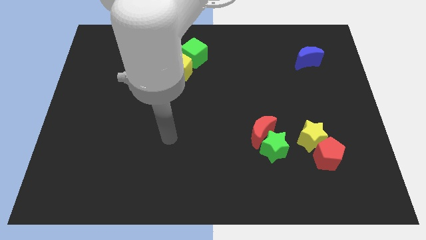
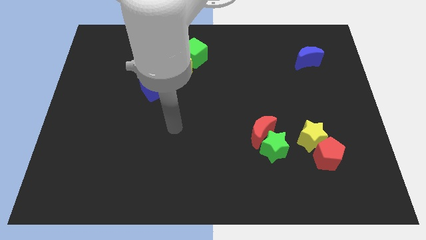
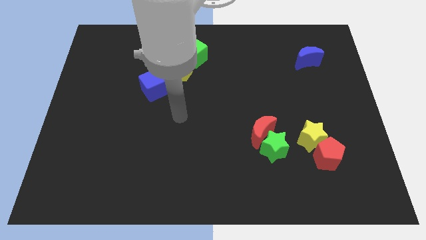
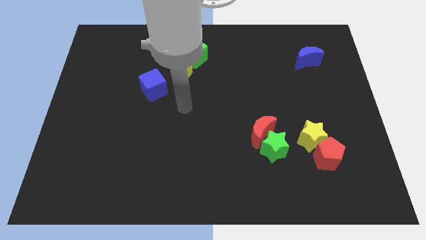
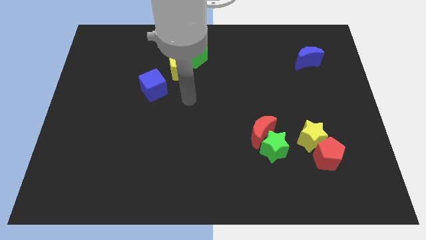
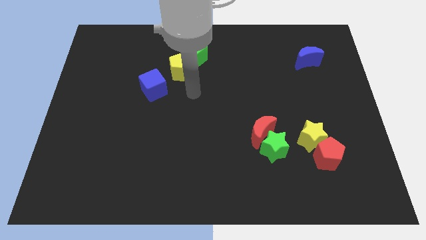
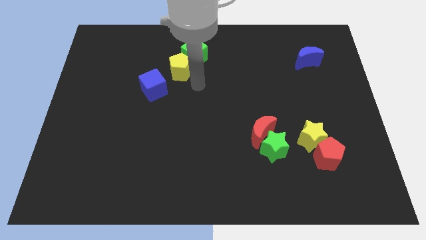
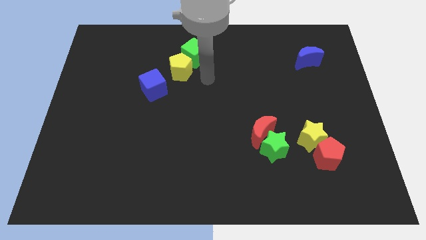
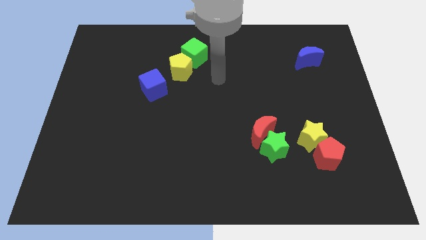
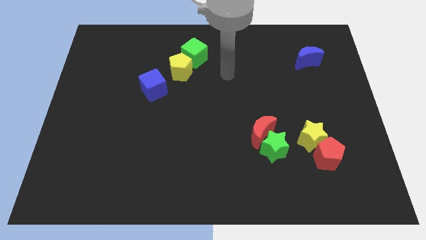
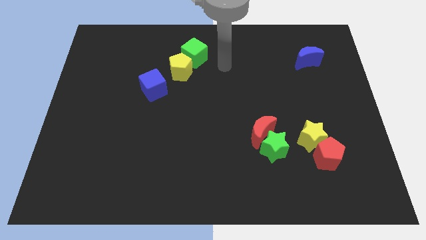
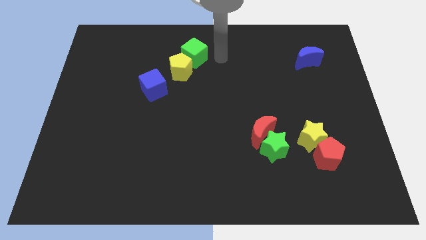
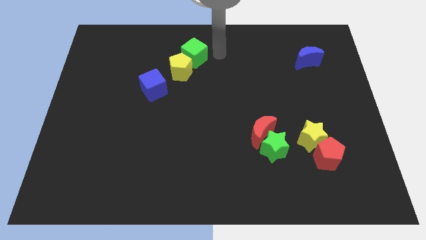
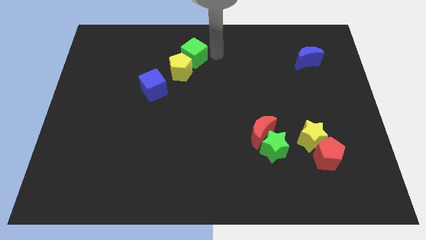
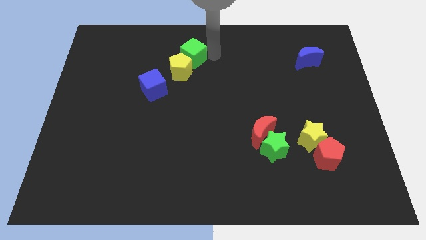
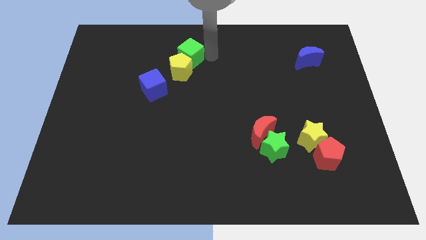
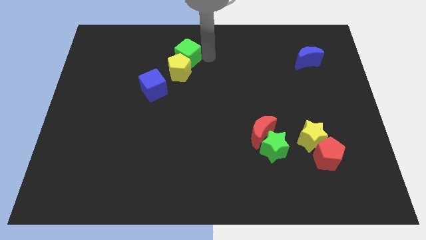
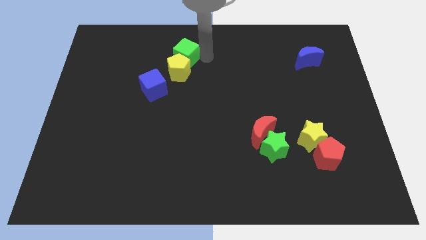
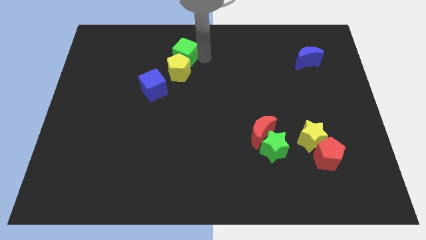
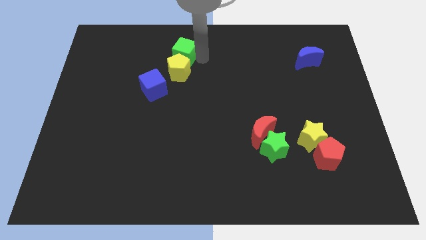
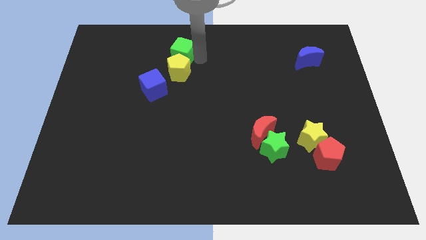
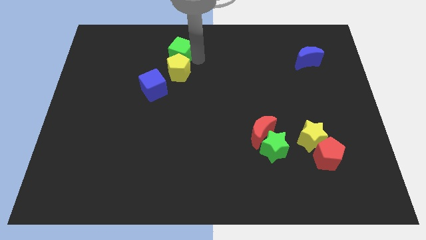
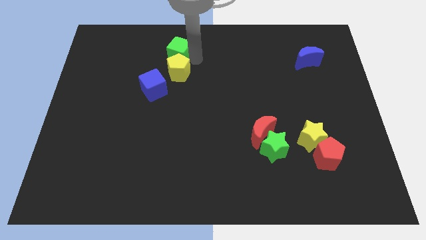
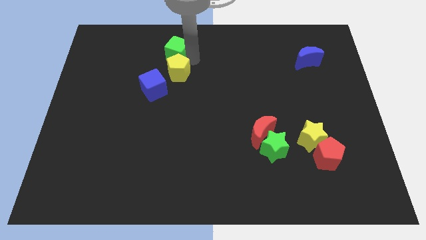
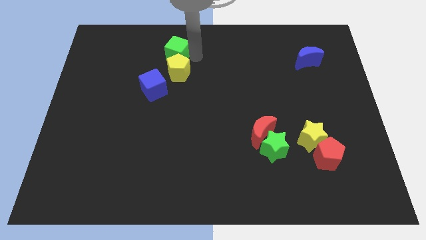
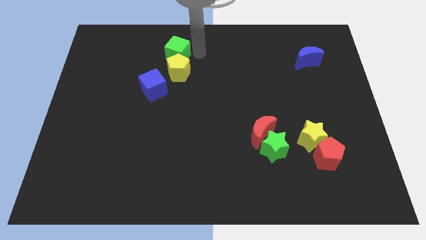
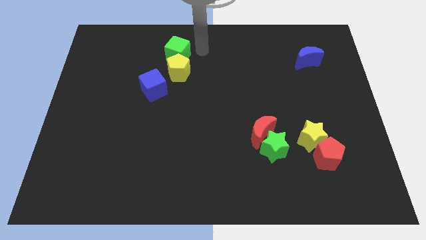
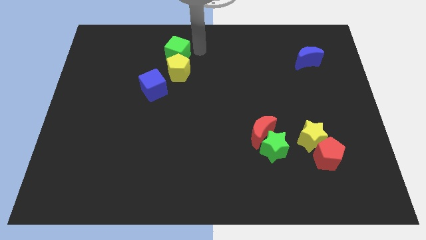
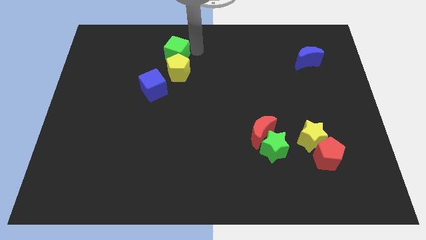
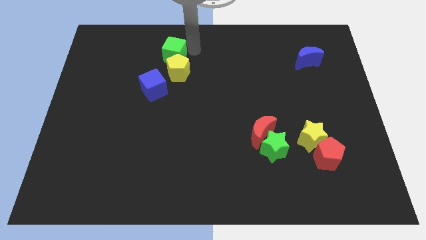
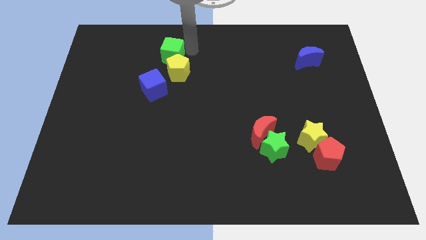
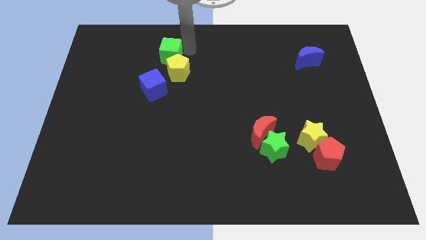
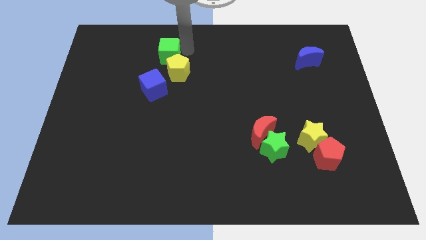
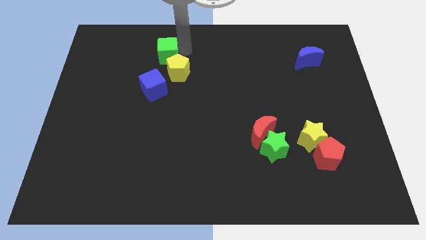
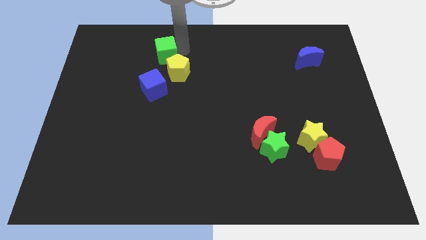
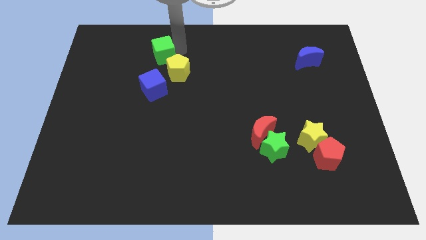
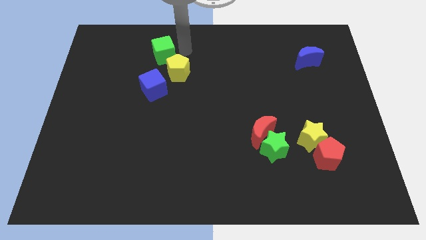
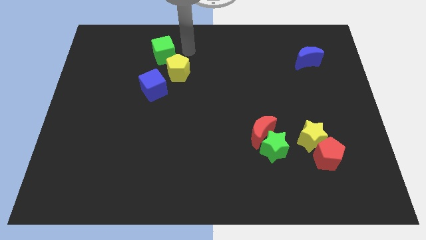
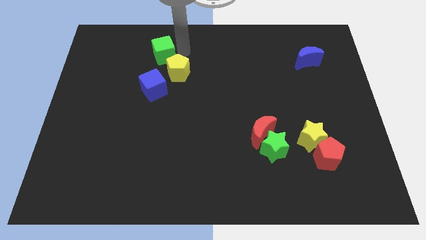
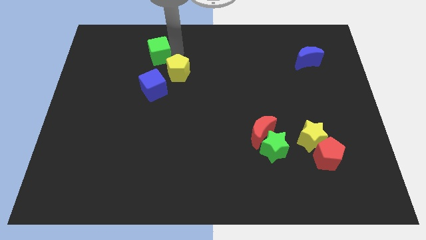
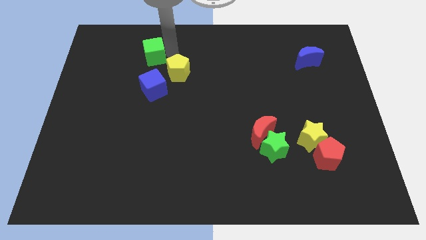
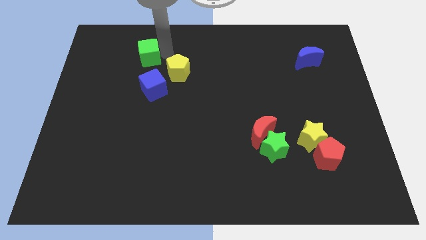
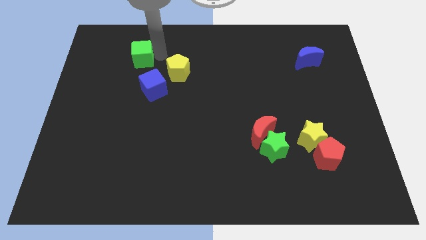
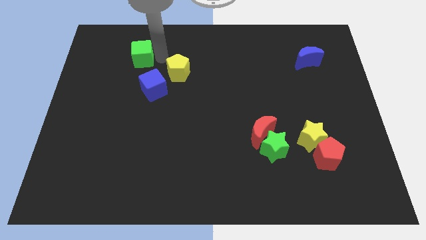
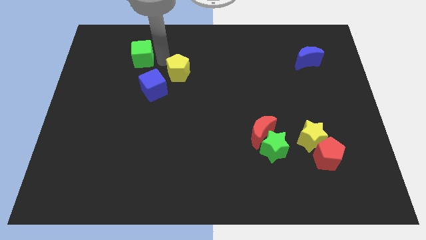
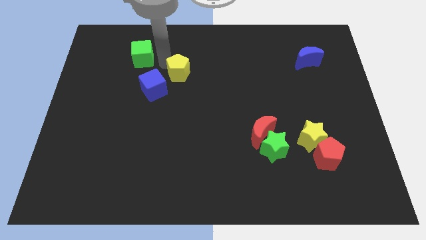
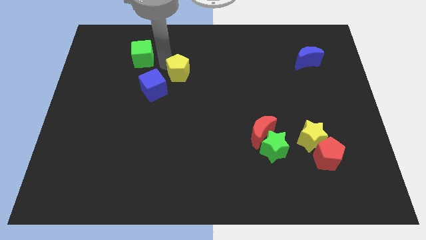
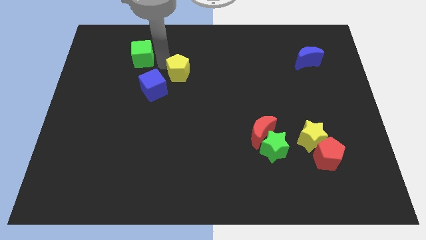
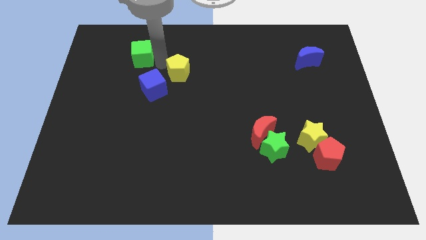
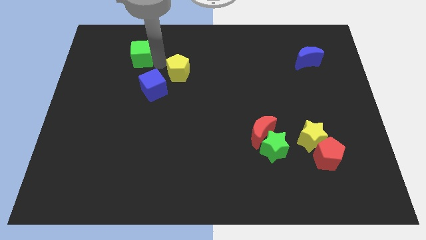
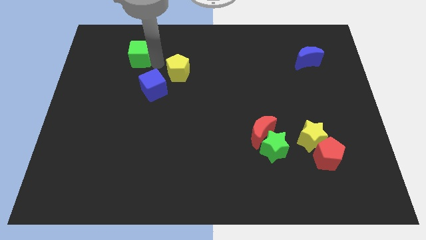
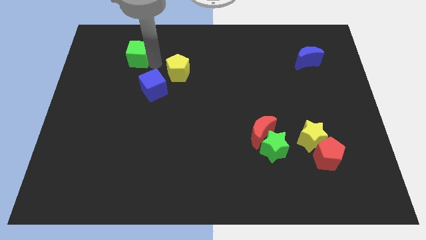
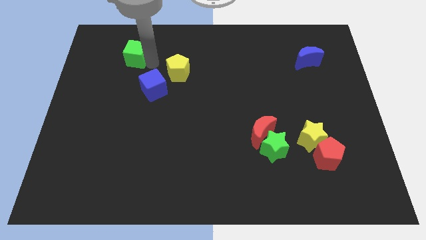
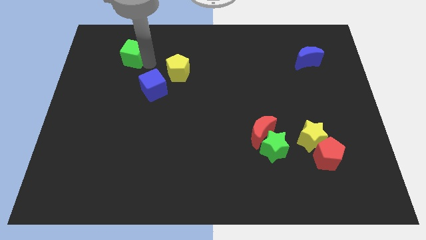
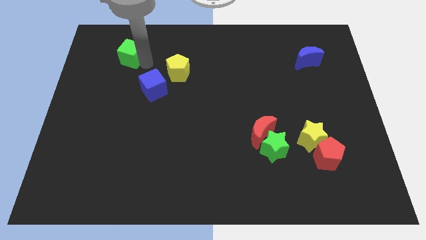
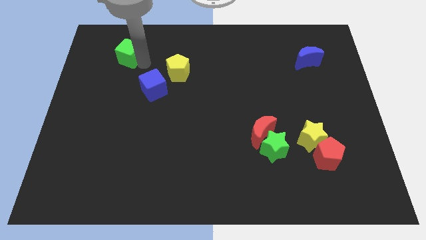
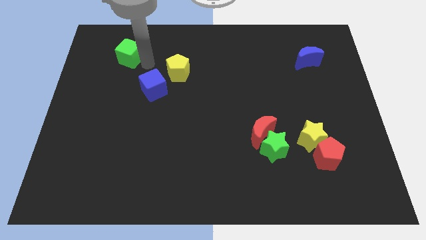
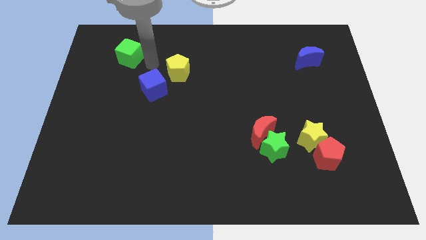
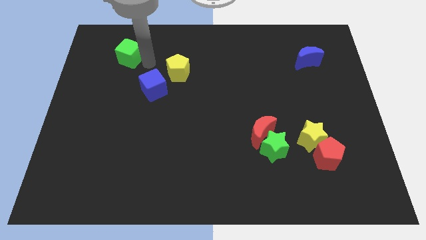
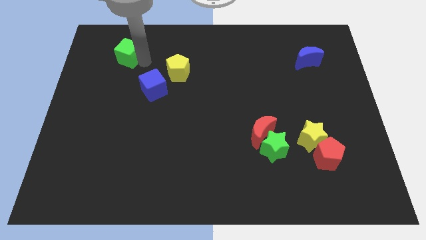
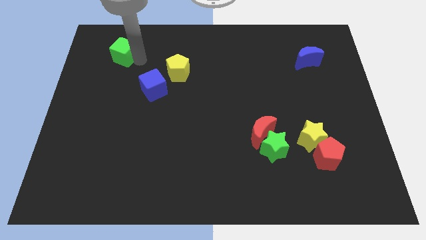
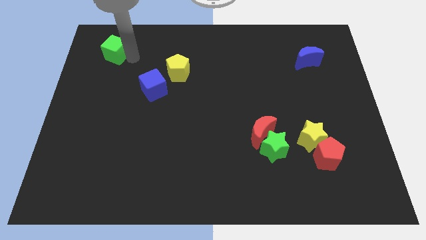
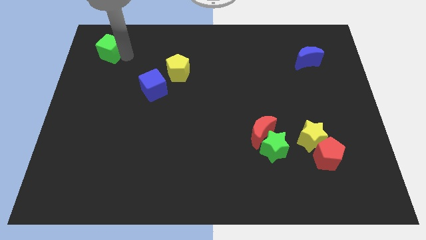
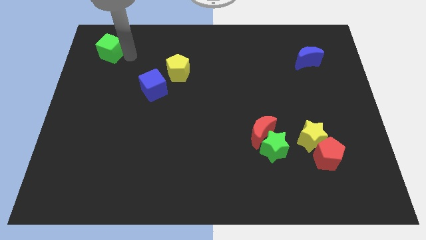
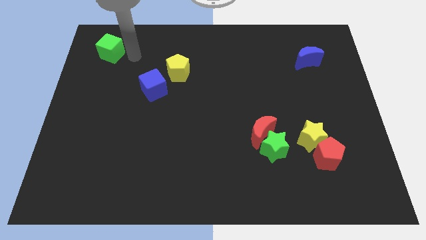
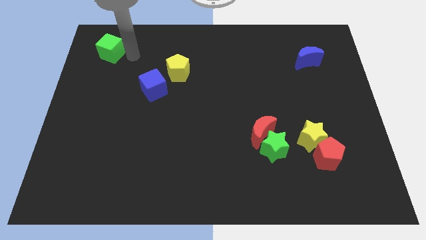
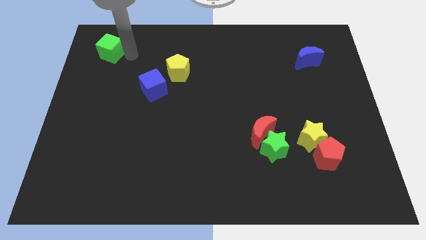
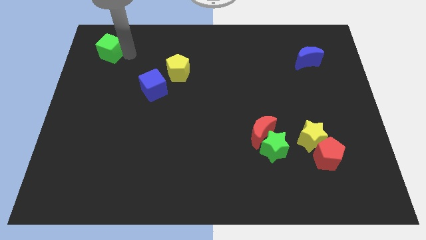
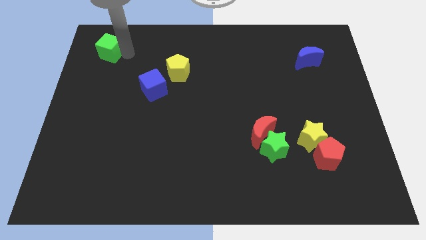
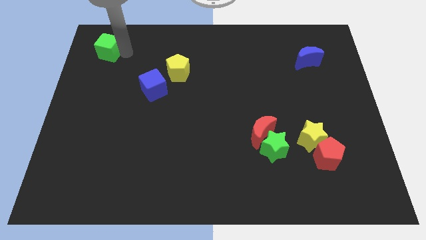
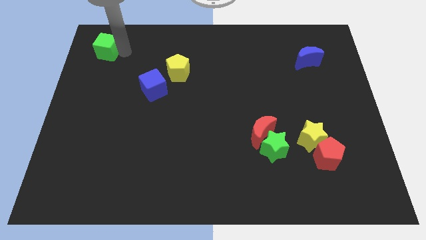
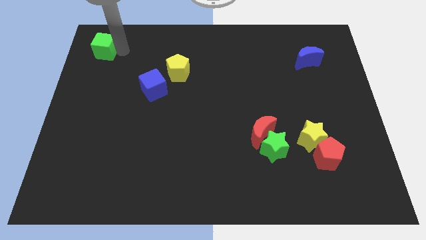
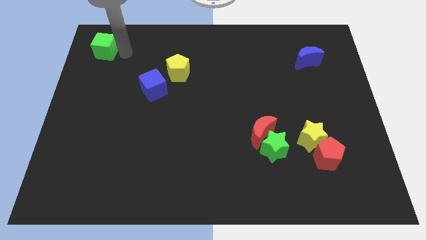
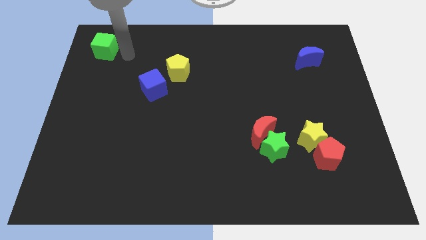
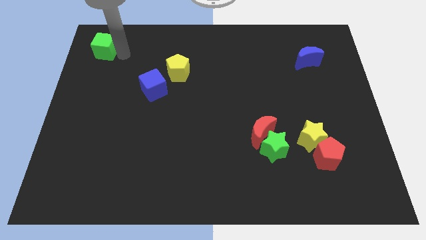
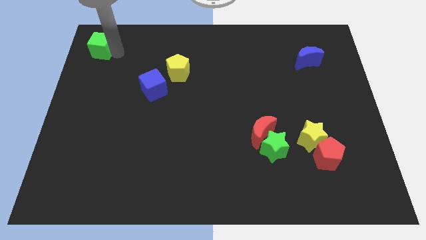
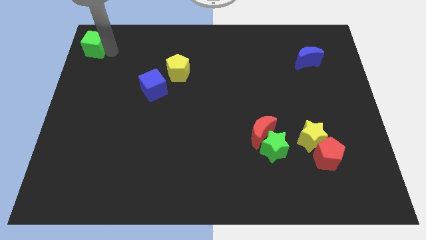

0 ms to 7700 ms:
slide the green cube to the top left corner
